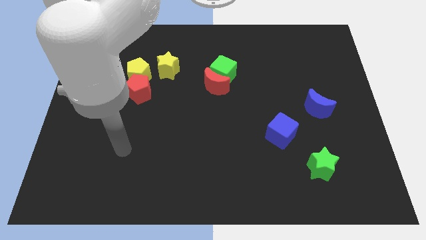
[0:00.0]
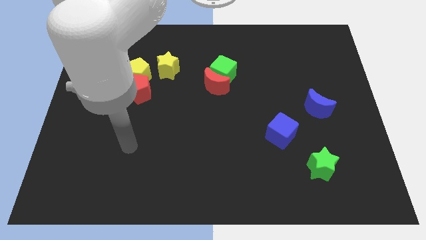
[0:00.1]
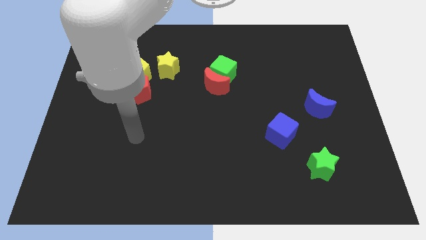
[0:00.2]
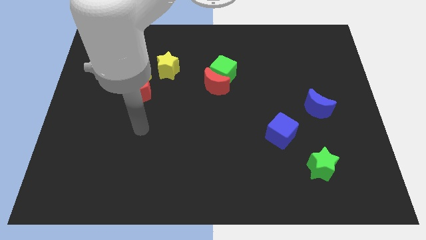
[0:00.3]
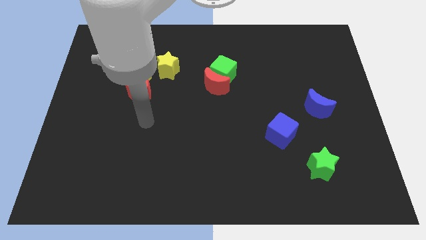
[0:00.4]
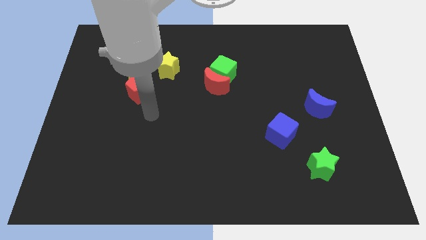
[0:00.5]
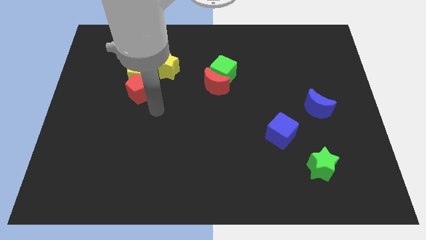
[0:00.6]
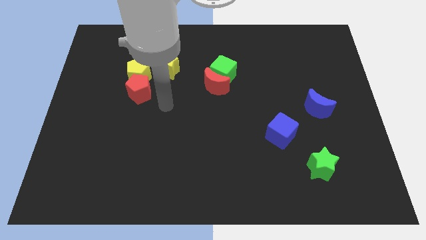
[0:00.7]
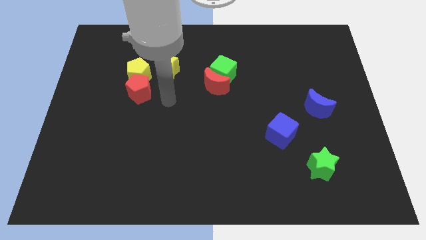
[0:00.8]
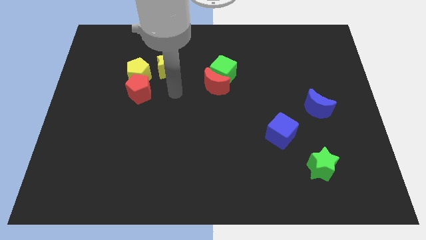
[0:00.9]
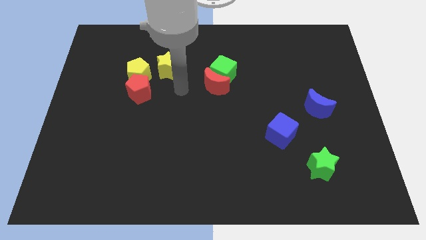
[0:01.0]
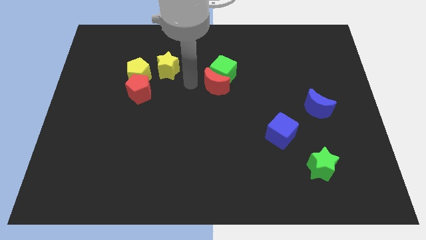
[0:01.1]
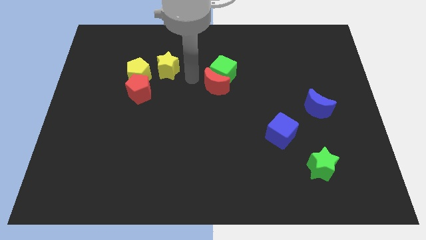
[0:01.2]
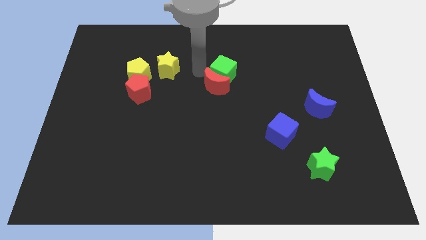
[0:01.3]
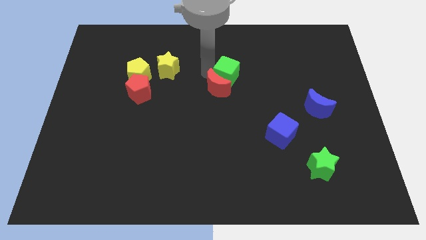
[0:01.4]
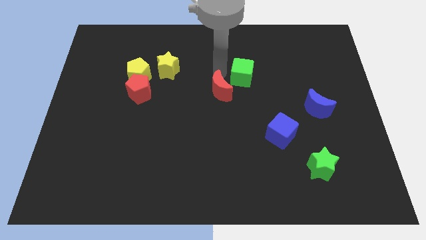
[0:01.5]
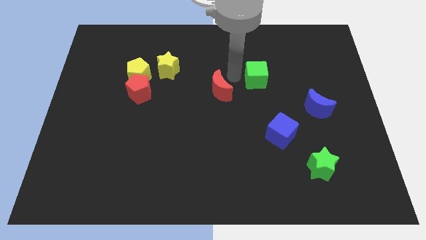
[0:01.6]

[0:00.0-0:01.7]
pull the red moon apart from the green cube

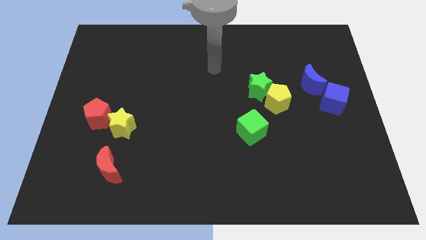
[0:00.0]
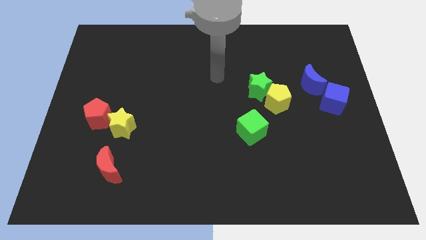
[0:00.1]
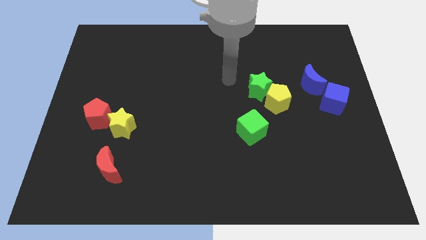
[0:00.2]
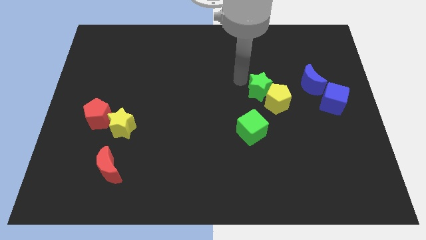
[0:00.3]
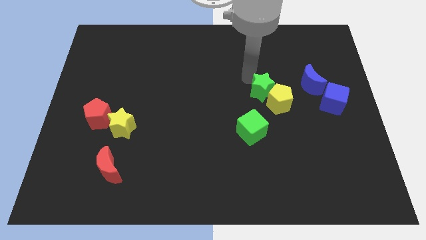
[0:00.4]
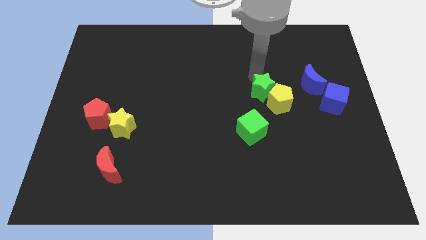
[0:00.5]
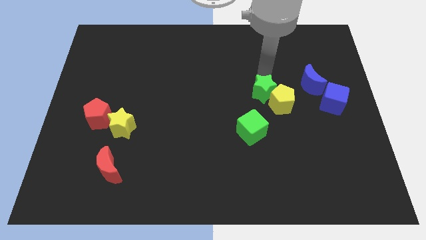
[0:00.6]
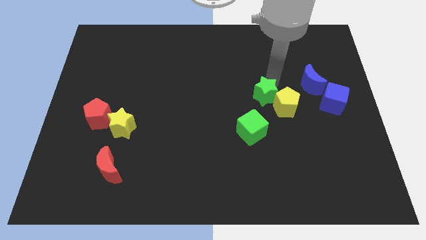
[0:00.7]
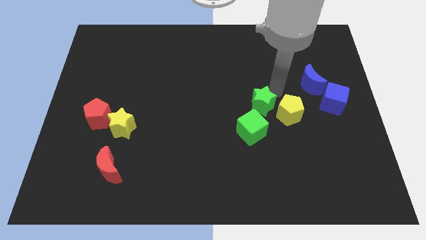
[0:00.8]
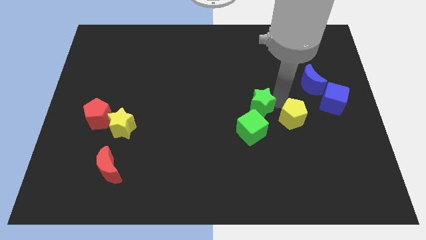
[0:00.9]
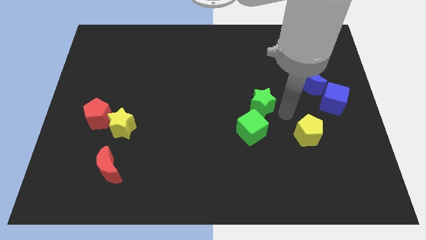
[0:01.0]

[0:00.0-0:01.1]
pull the green star apart from the yellow pentagon

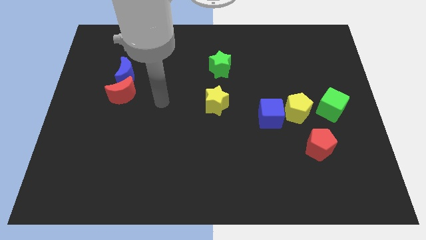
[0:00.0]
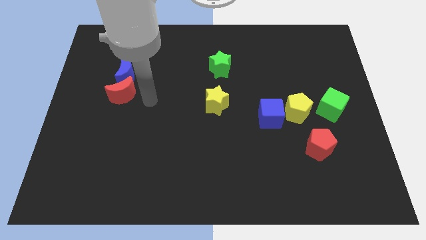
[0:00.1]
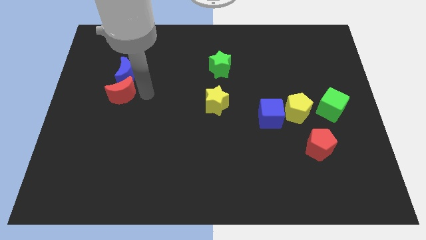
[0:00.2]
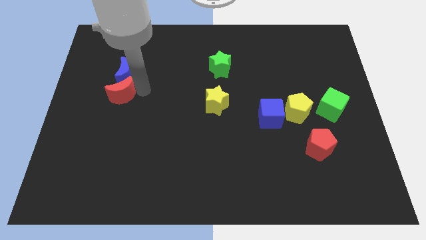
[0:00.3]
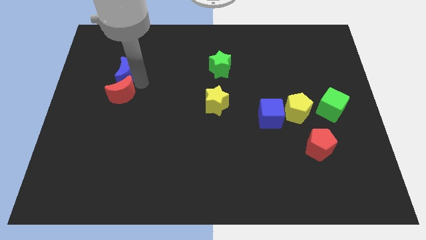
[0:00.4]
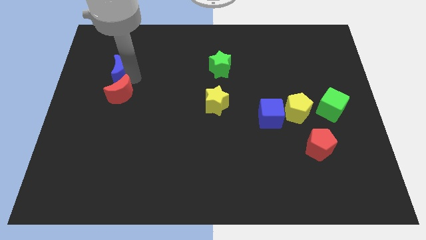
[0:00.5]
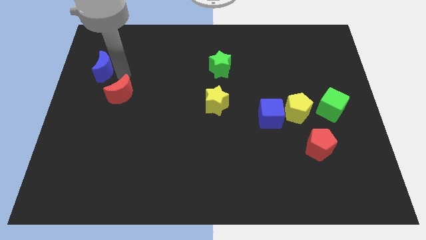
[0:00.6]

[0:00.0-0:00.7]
pull the red moon apart from the blue moon

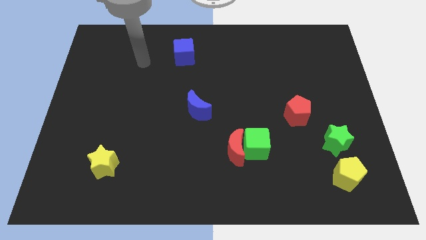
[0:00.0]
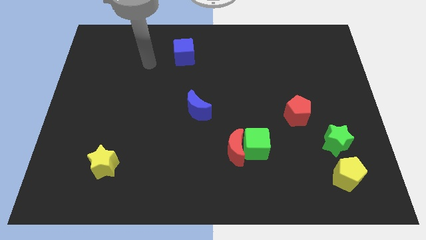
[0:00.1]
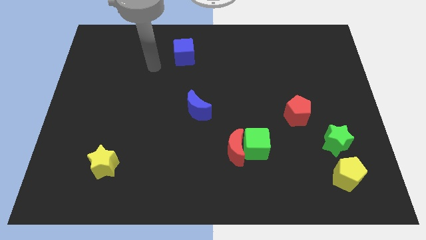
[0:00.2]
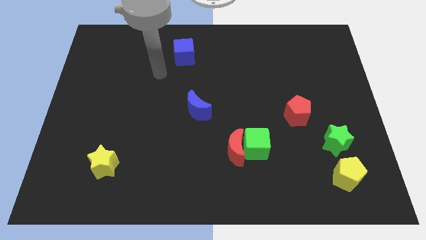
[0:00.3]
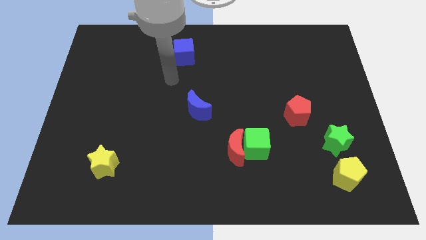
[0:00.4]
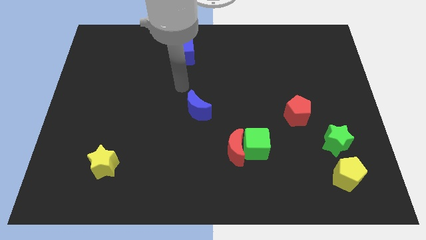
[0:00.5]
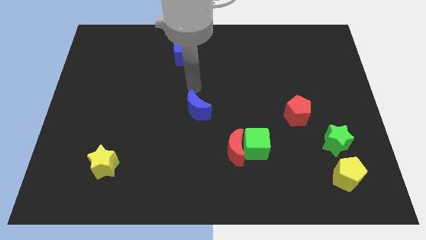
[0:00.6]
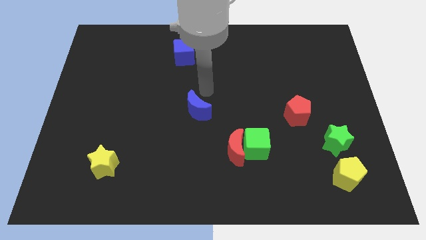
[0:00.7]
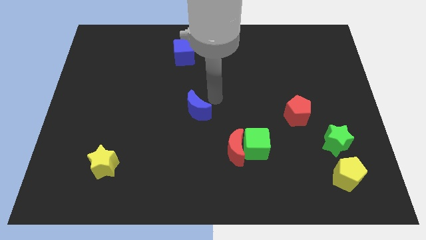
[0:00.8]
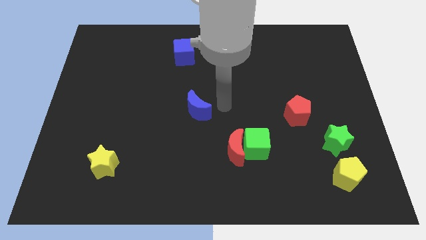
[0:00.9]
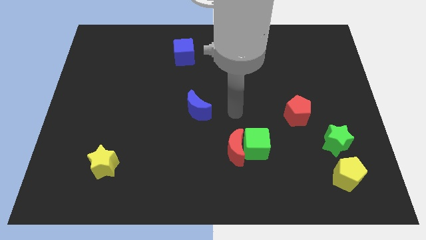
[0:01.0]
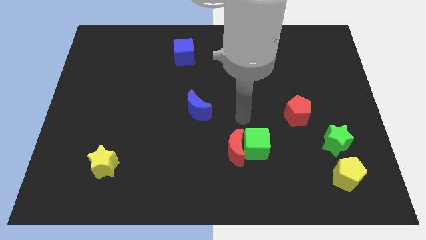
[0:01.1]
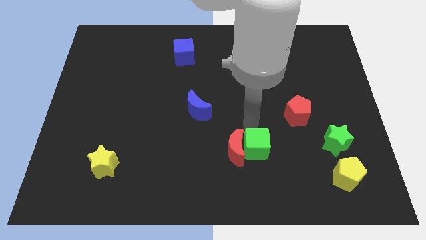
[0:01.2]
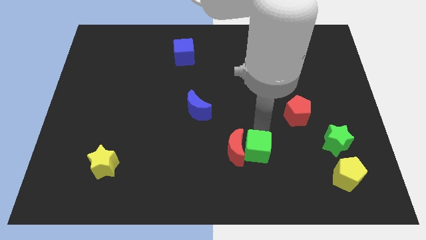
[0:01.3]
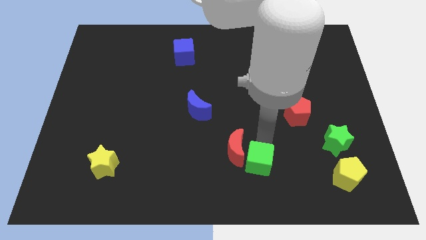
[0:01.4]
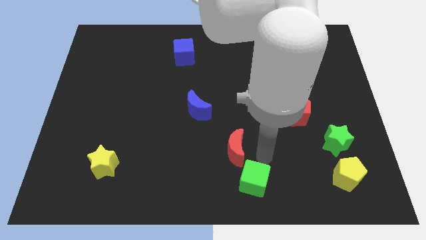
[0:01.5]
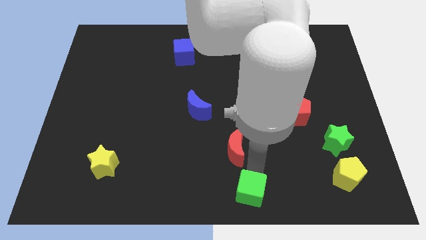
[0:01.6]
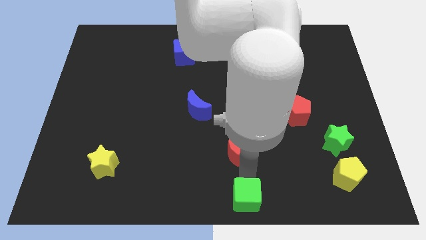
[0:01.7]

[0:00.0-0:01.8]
move the red moon away from the green cube

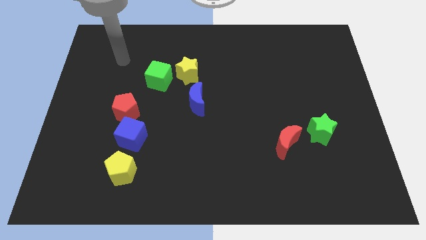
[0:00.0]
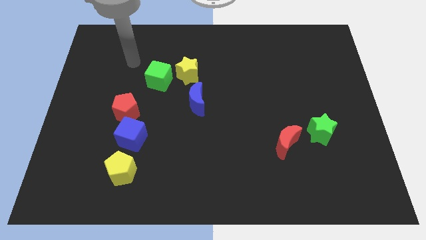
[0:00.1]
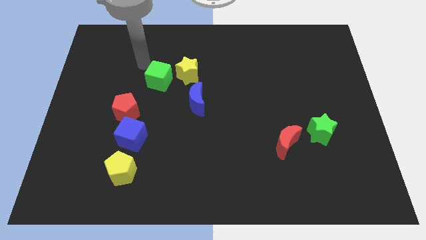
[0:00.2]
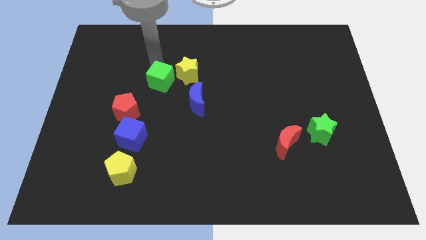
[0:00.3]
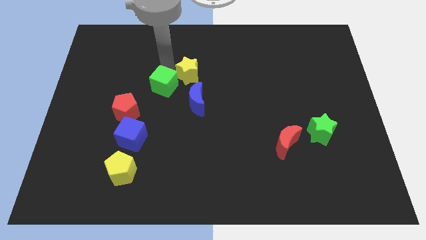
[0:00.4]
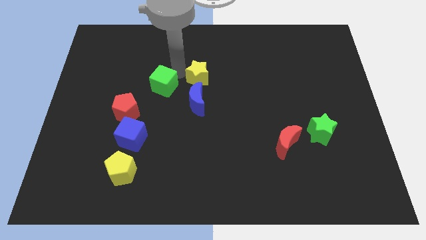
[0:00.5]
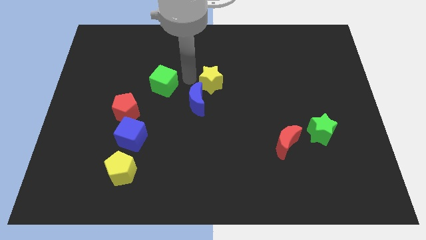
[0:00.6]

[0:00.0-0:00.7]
pull the green cube apart from the yellow star

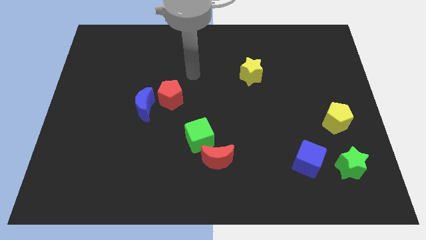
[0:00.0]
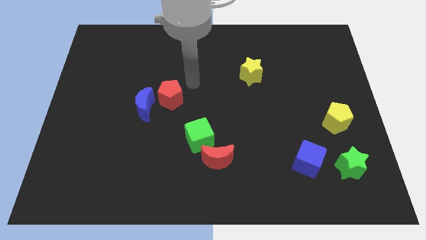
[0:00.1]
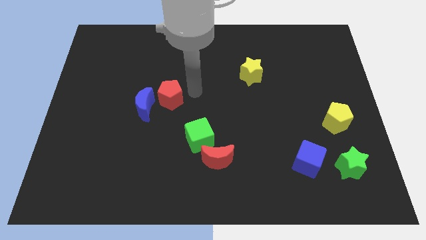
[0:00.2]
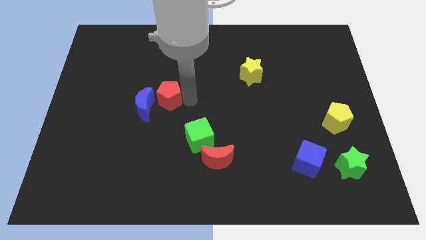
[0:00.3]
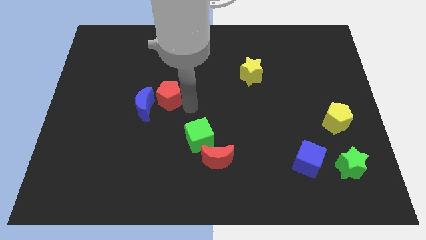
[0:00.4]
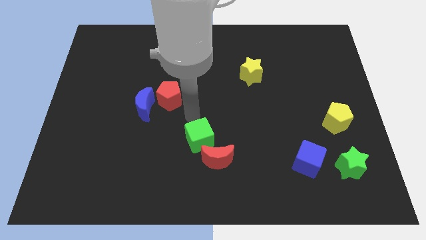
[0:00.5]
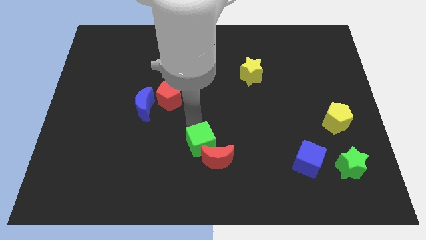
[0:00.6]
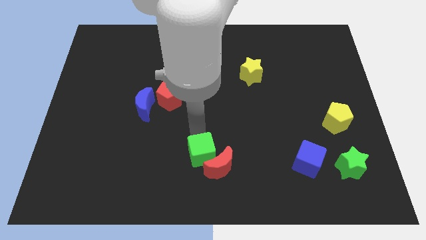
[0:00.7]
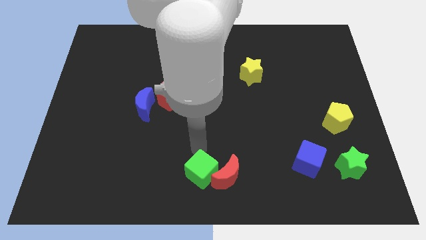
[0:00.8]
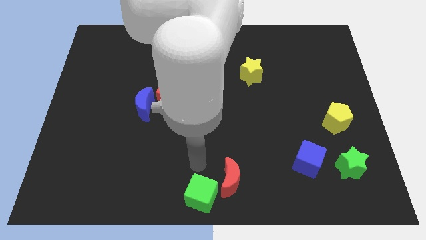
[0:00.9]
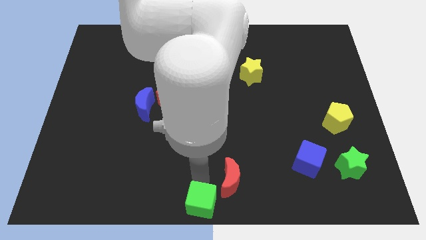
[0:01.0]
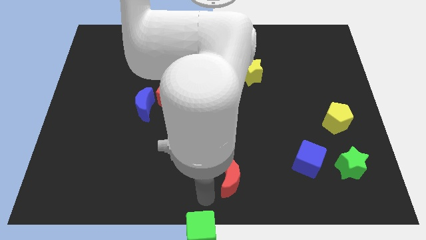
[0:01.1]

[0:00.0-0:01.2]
separate the red moon from the green cube

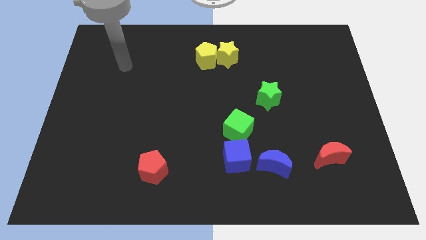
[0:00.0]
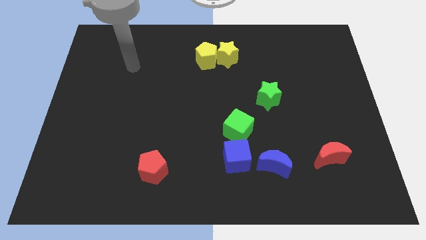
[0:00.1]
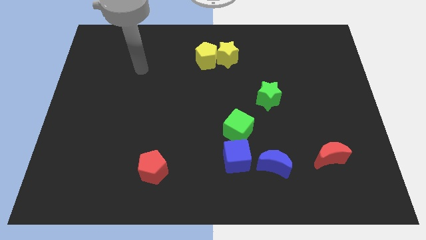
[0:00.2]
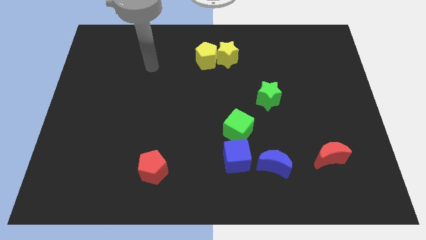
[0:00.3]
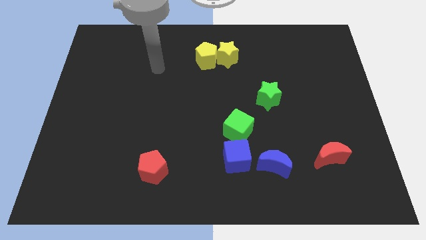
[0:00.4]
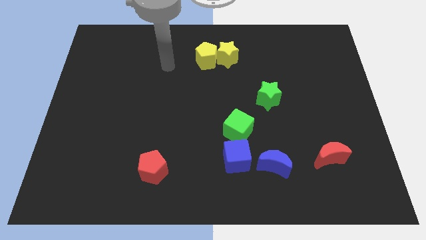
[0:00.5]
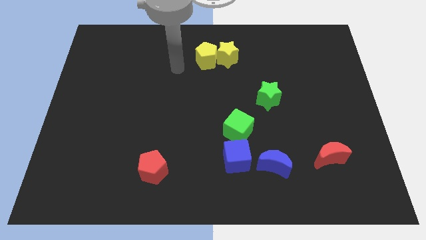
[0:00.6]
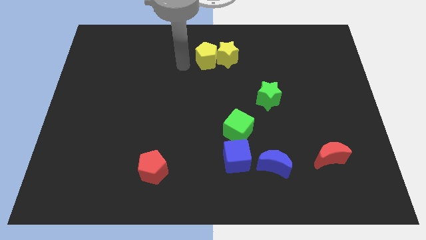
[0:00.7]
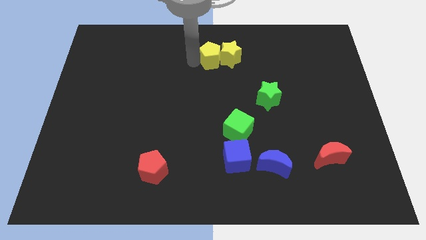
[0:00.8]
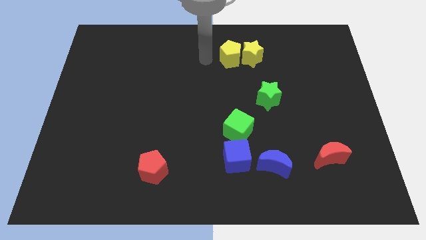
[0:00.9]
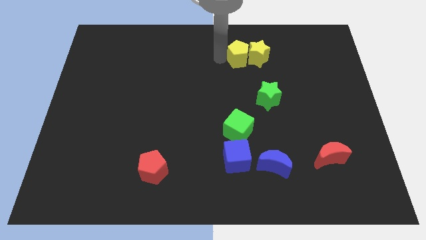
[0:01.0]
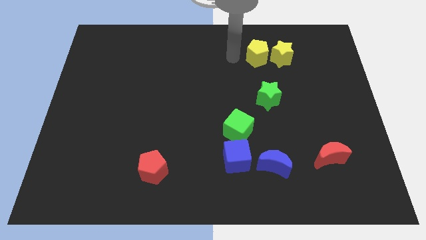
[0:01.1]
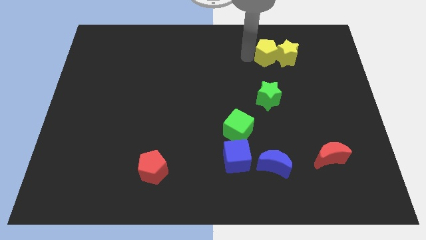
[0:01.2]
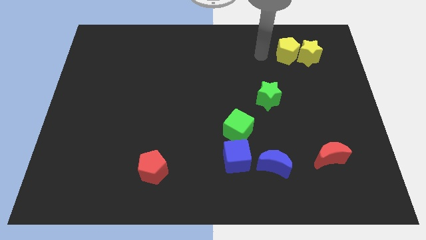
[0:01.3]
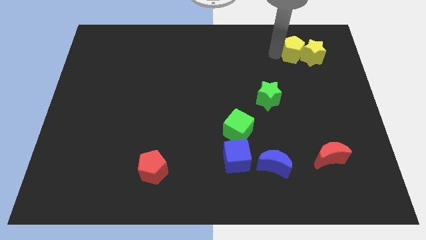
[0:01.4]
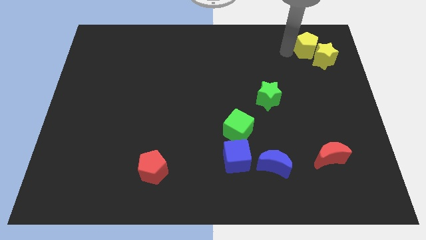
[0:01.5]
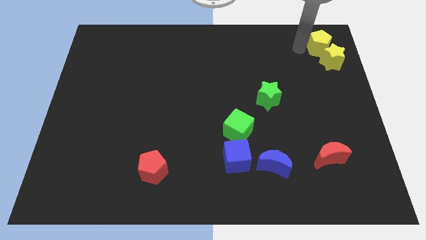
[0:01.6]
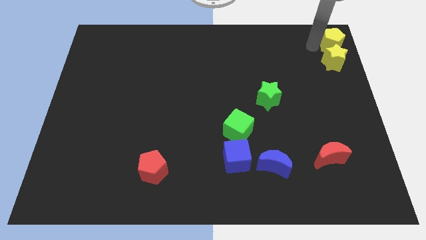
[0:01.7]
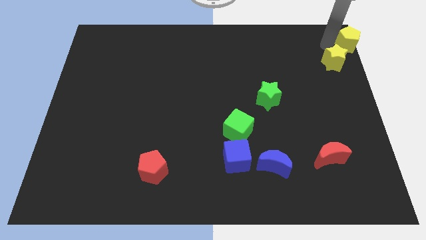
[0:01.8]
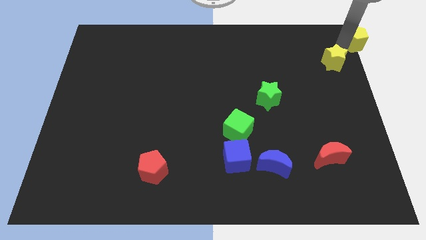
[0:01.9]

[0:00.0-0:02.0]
move the yellow star away from the yellow pentagon
